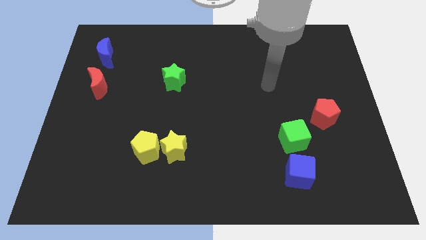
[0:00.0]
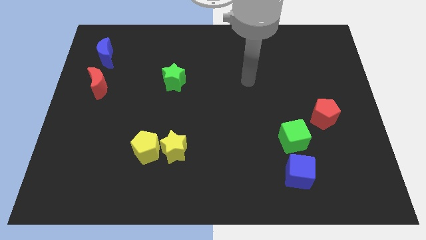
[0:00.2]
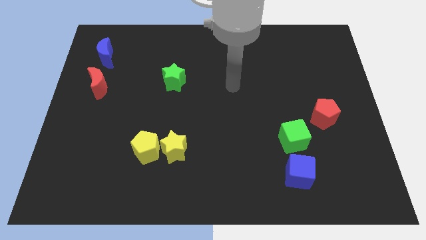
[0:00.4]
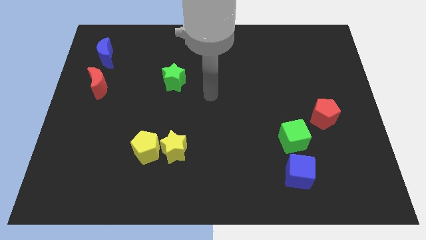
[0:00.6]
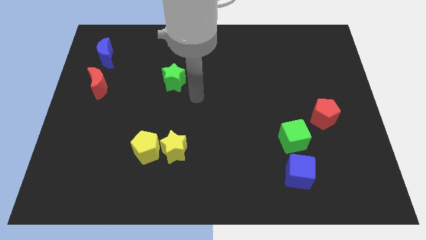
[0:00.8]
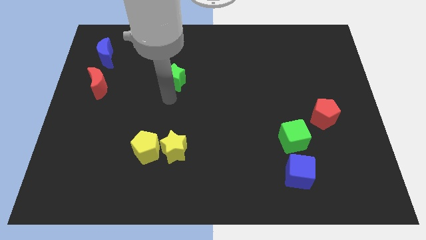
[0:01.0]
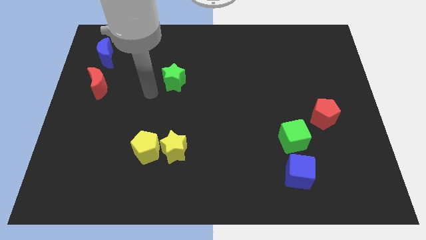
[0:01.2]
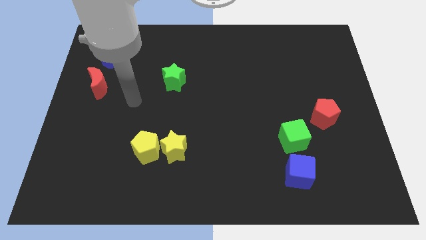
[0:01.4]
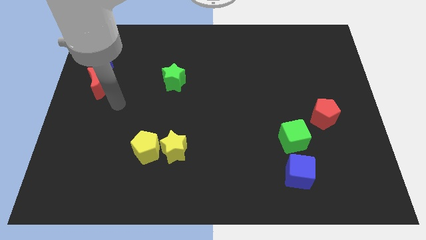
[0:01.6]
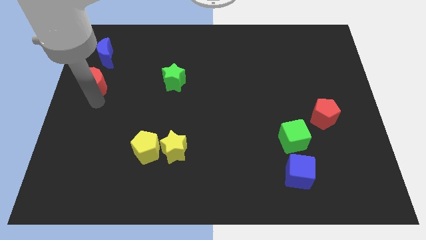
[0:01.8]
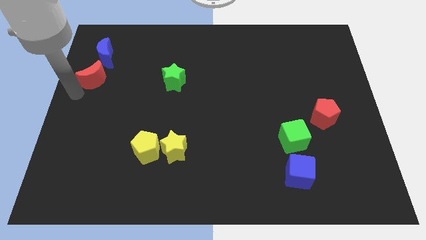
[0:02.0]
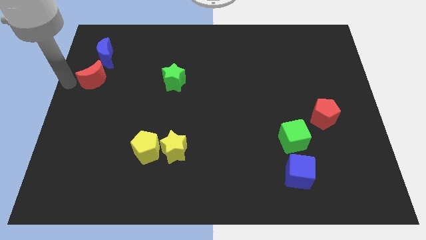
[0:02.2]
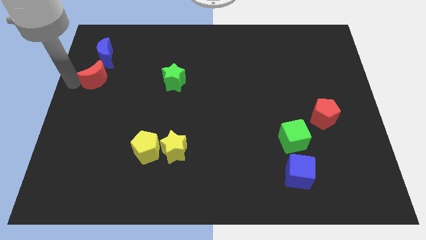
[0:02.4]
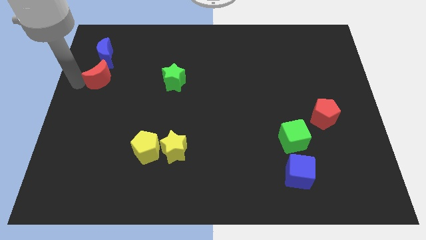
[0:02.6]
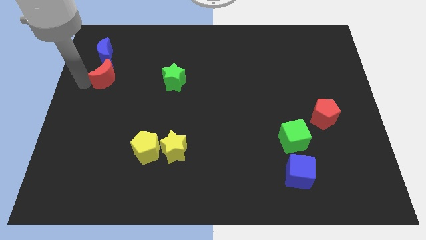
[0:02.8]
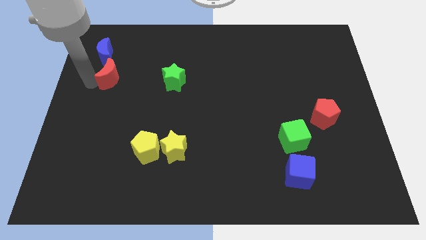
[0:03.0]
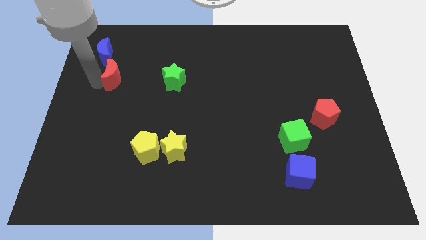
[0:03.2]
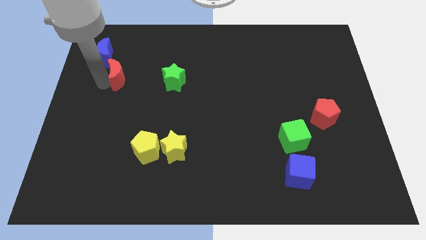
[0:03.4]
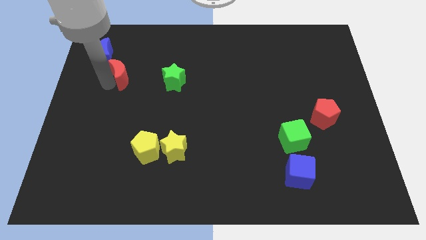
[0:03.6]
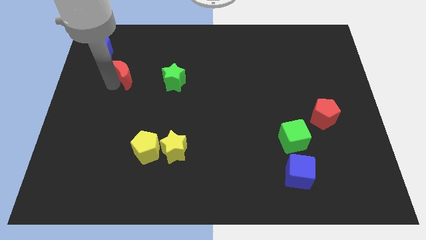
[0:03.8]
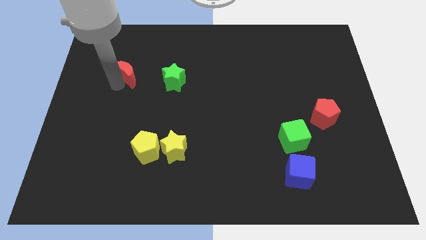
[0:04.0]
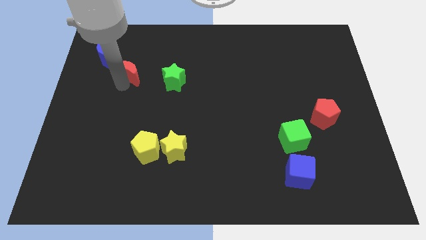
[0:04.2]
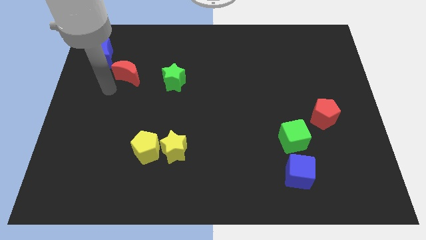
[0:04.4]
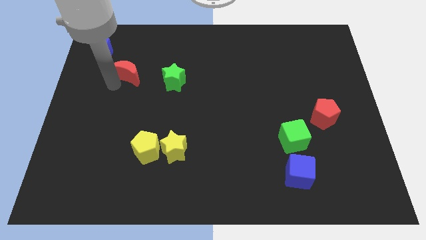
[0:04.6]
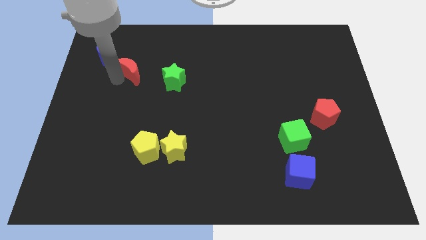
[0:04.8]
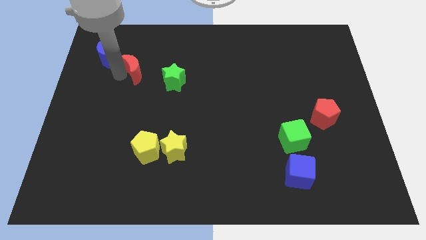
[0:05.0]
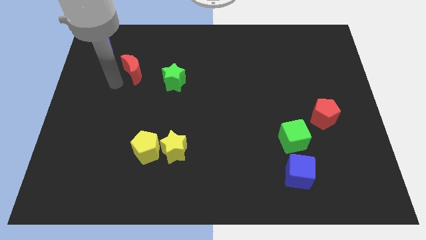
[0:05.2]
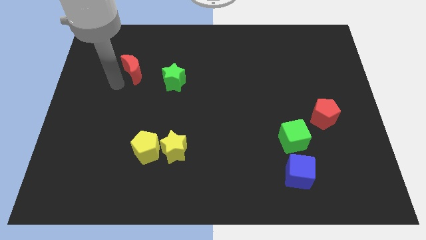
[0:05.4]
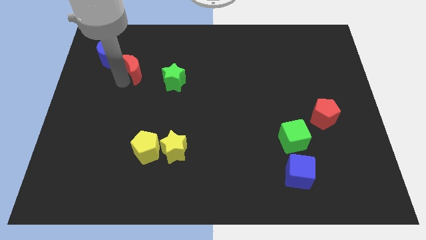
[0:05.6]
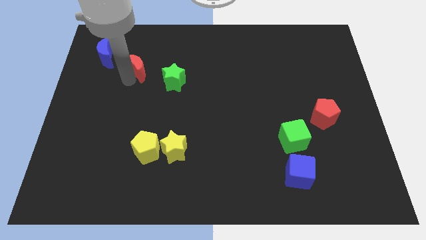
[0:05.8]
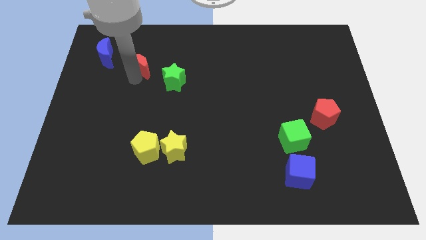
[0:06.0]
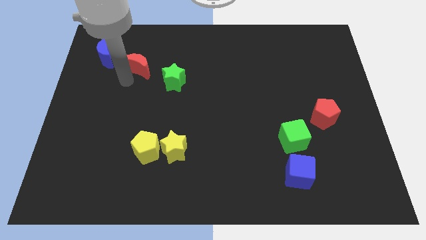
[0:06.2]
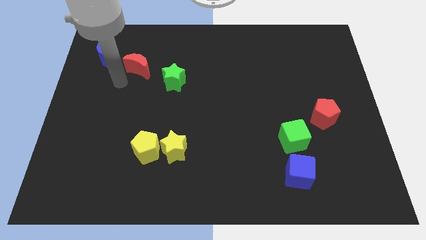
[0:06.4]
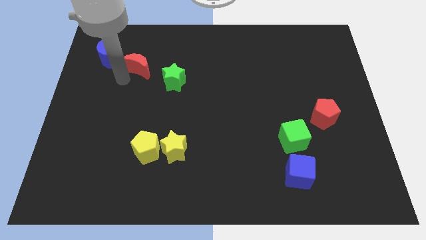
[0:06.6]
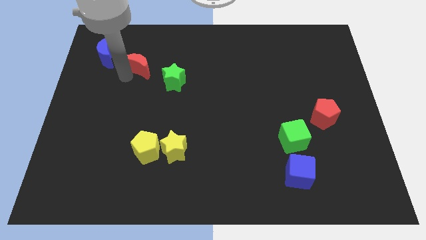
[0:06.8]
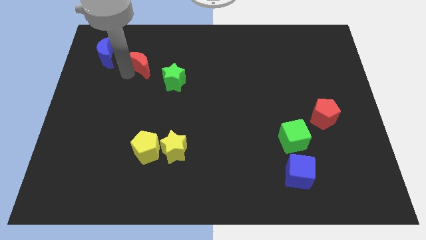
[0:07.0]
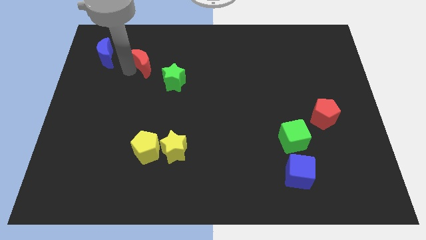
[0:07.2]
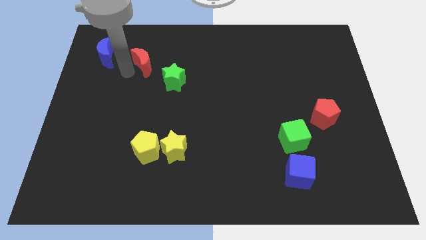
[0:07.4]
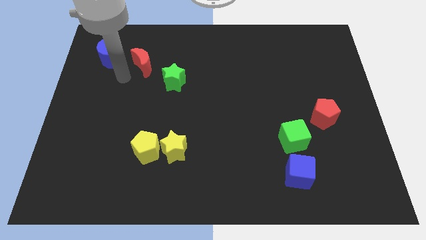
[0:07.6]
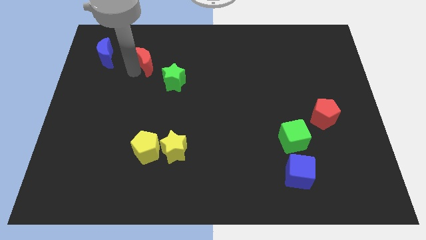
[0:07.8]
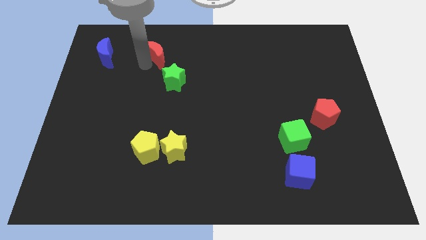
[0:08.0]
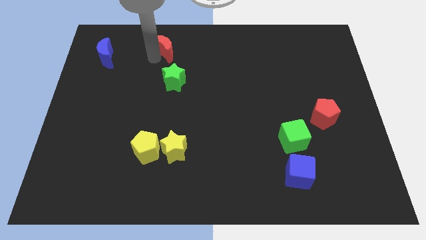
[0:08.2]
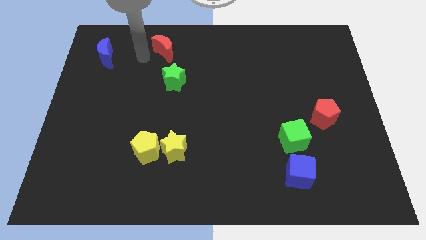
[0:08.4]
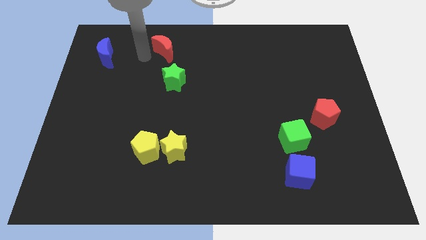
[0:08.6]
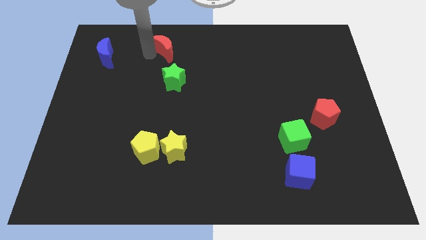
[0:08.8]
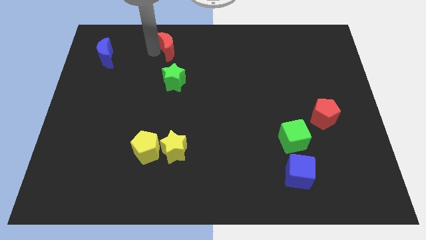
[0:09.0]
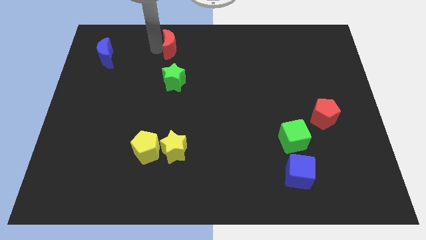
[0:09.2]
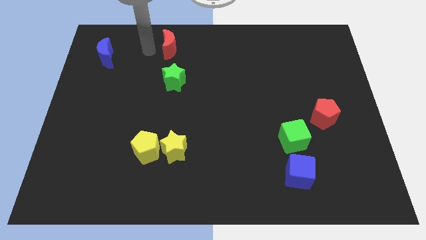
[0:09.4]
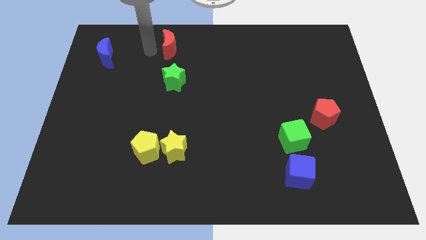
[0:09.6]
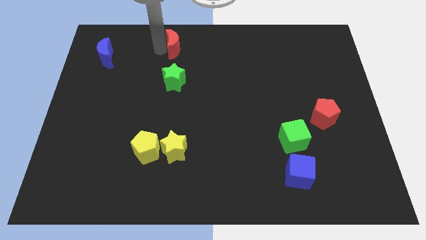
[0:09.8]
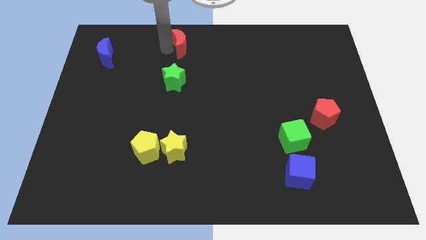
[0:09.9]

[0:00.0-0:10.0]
put the red moon to the towards your base

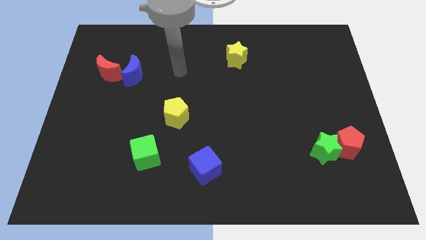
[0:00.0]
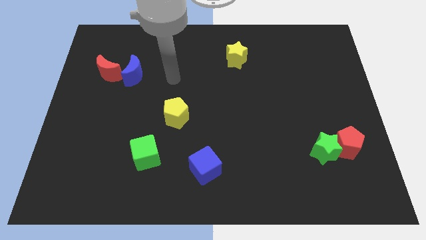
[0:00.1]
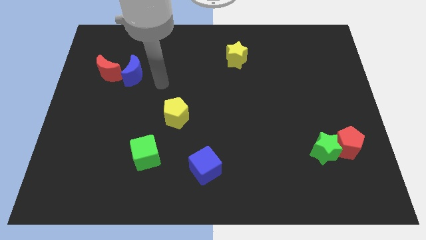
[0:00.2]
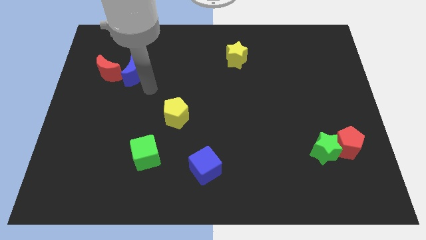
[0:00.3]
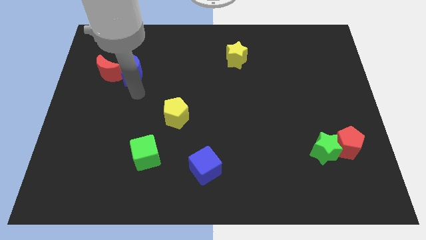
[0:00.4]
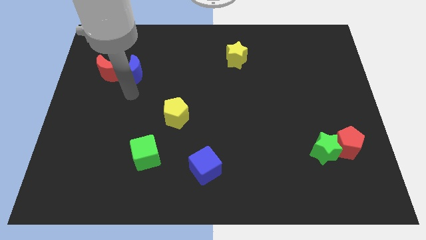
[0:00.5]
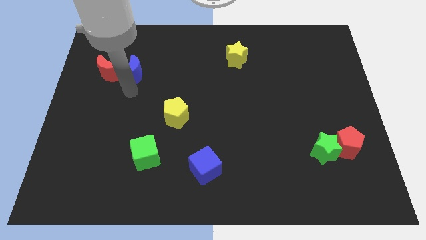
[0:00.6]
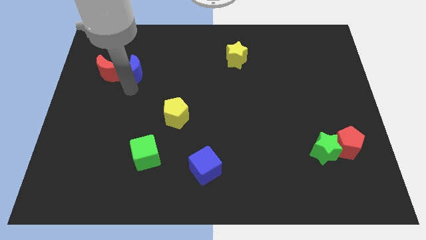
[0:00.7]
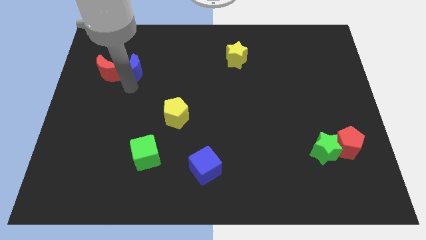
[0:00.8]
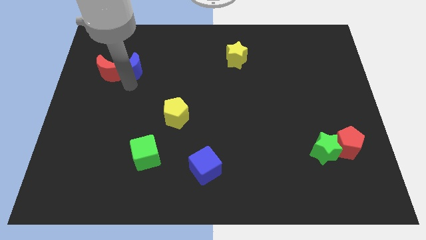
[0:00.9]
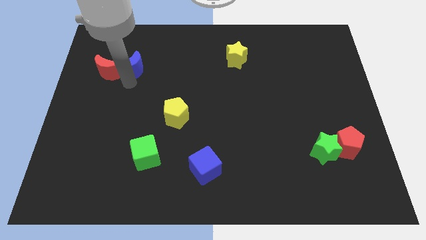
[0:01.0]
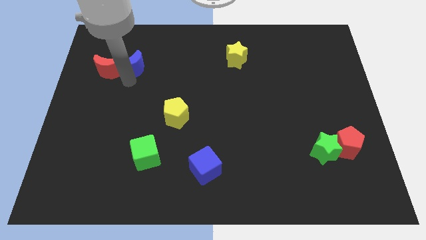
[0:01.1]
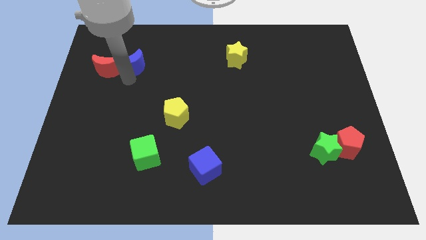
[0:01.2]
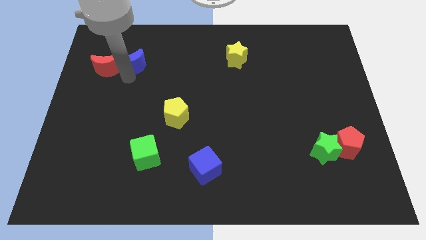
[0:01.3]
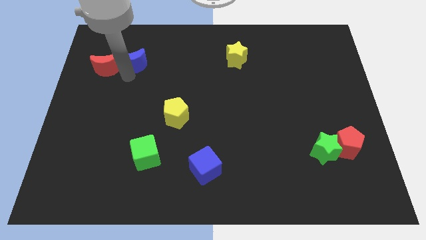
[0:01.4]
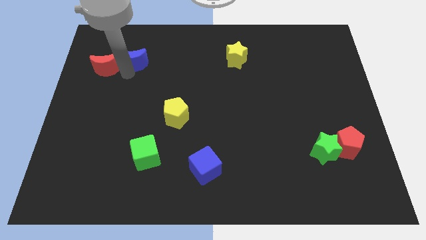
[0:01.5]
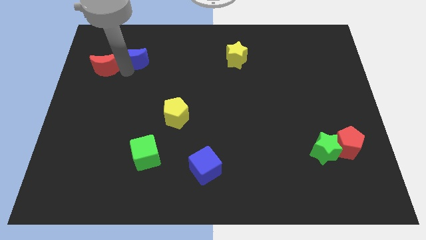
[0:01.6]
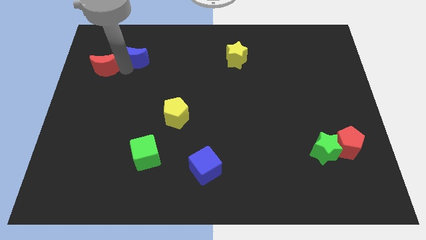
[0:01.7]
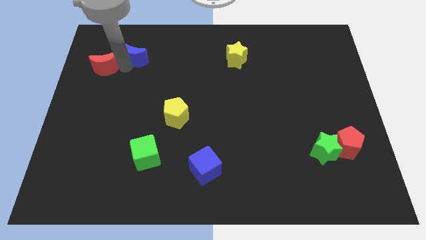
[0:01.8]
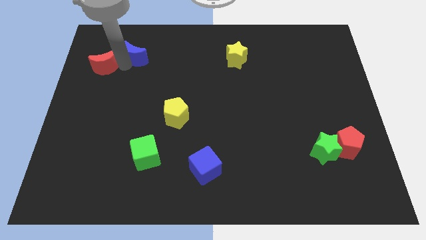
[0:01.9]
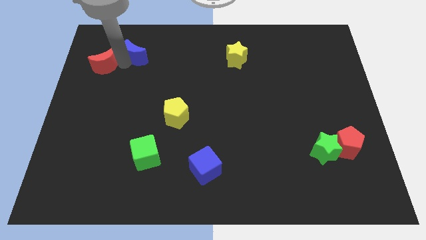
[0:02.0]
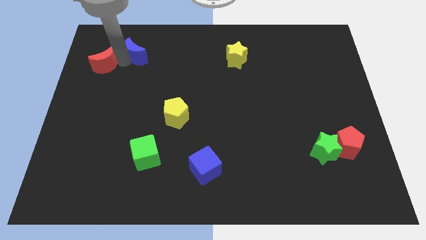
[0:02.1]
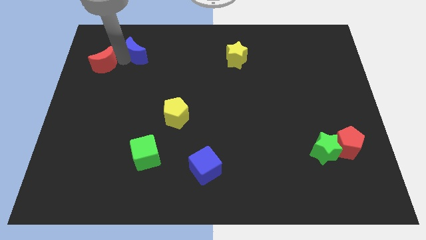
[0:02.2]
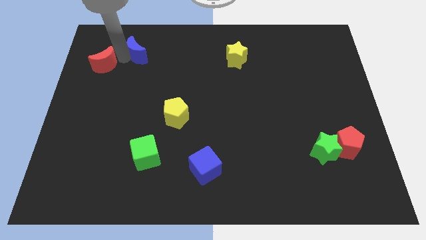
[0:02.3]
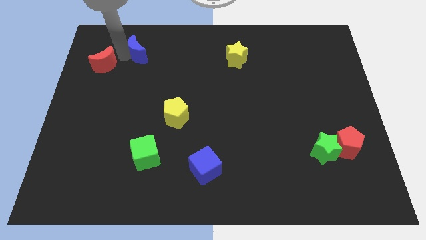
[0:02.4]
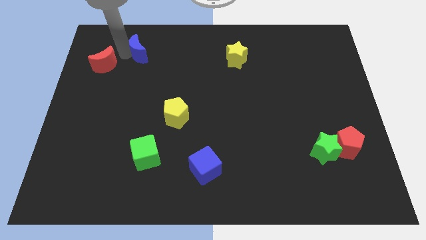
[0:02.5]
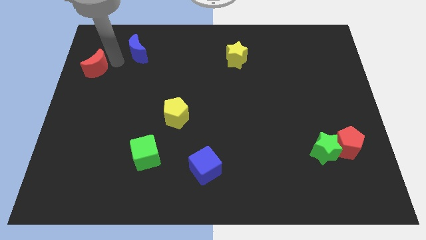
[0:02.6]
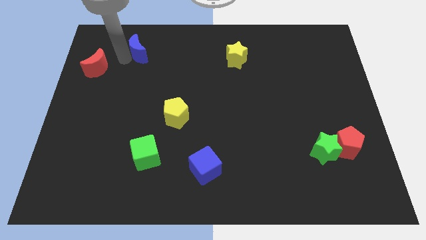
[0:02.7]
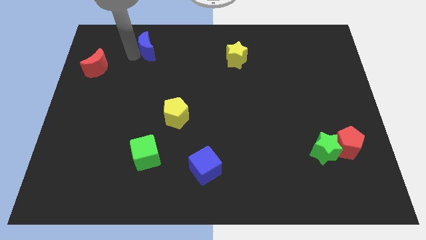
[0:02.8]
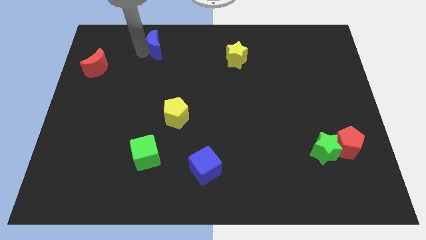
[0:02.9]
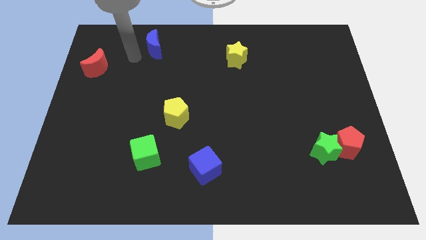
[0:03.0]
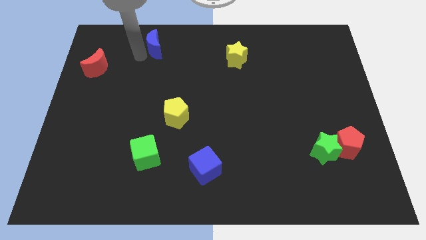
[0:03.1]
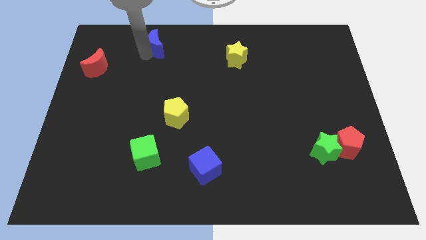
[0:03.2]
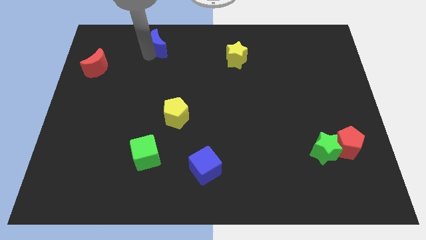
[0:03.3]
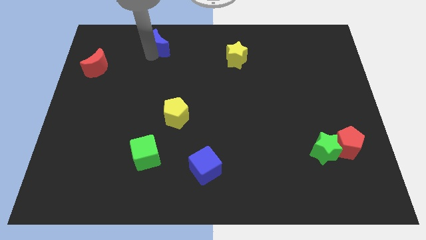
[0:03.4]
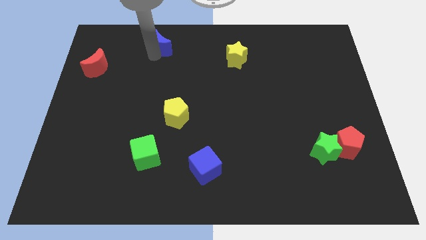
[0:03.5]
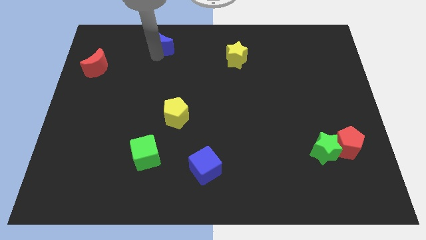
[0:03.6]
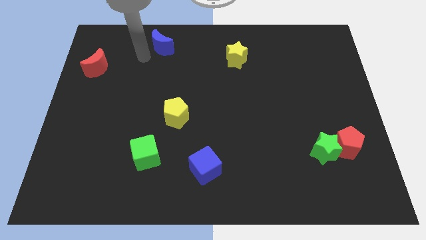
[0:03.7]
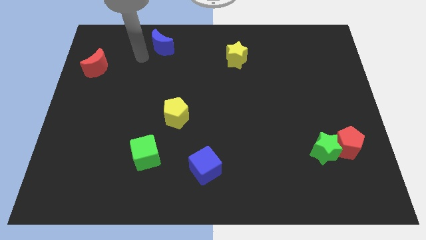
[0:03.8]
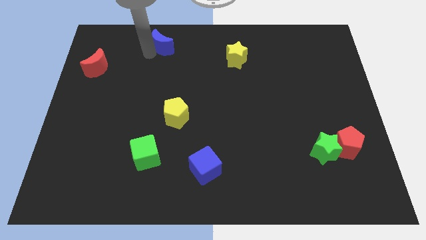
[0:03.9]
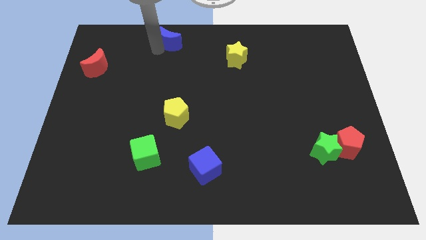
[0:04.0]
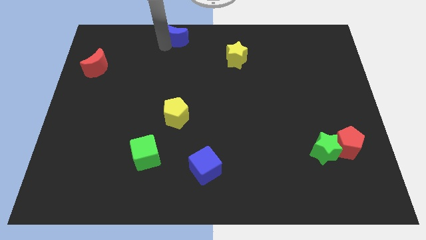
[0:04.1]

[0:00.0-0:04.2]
push the blue moon to the top
